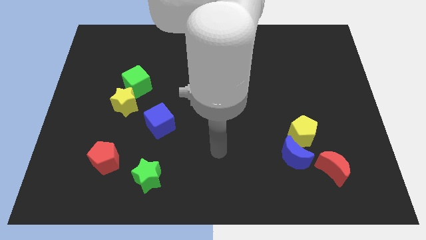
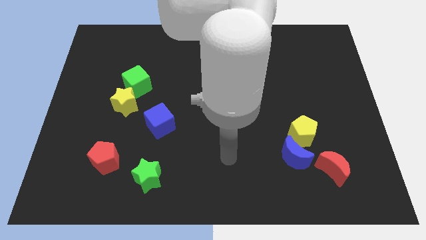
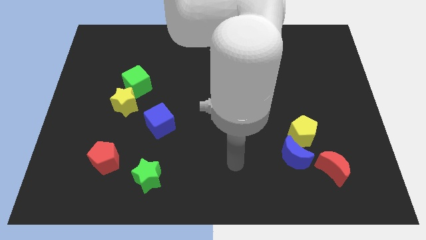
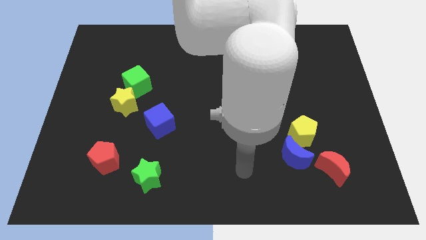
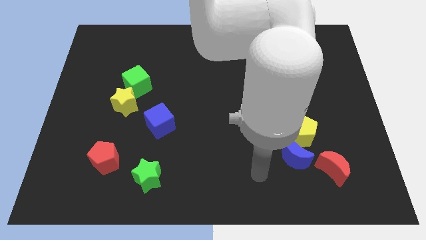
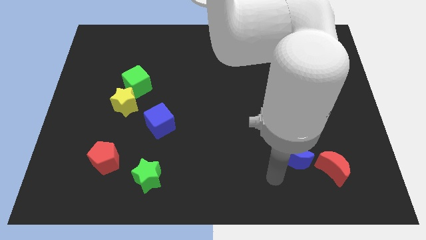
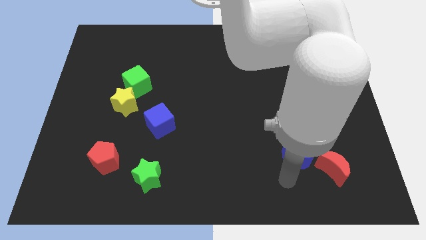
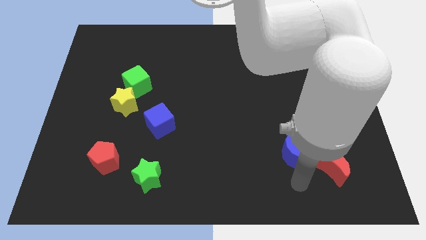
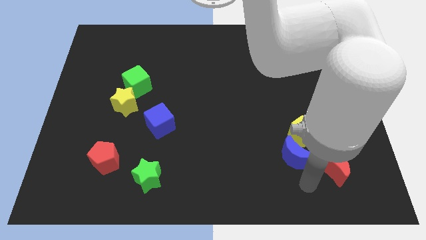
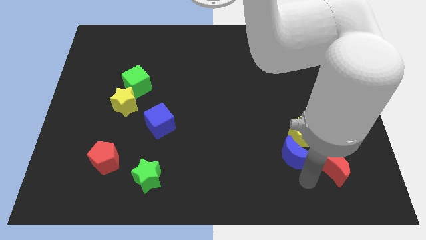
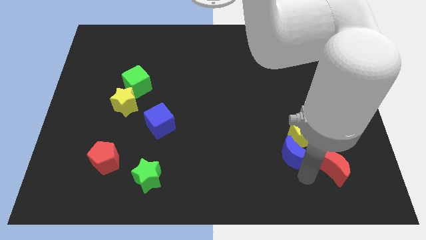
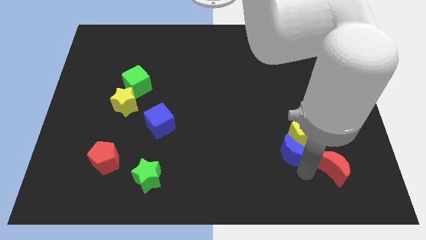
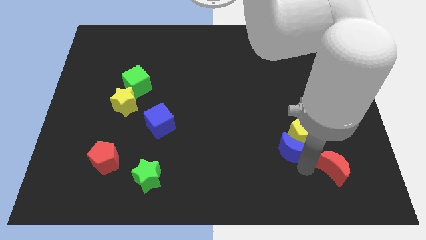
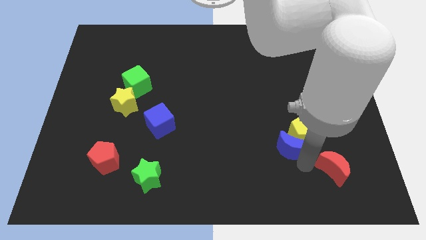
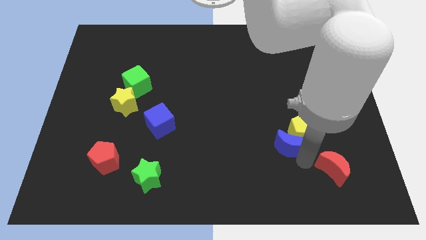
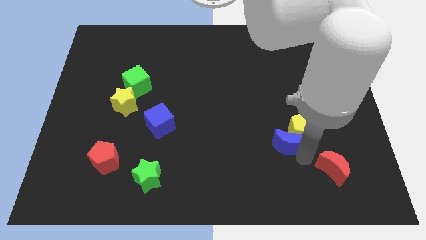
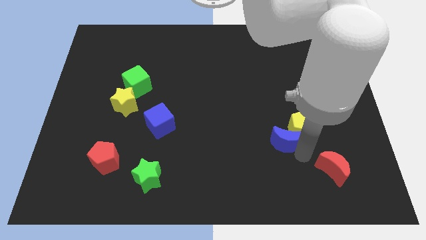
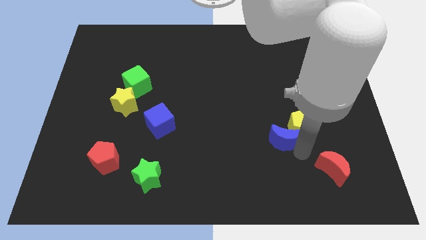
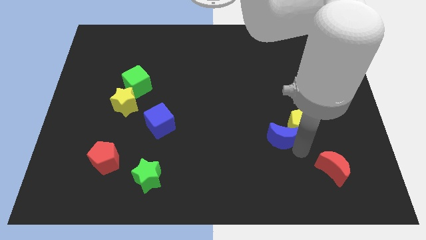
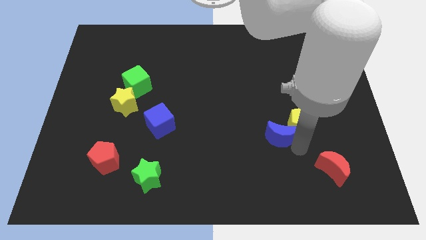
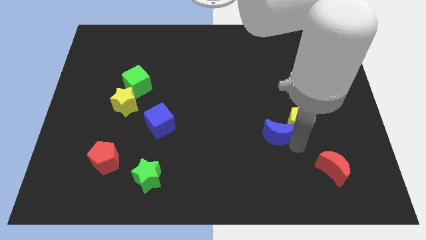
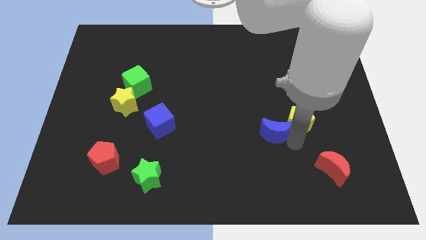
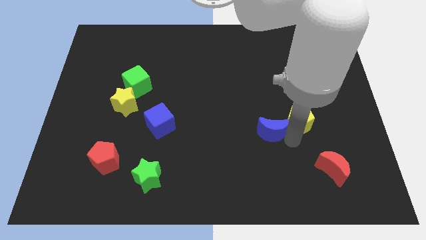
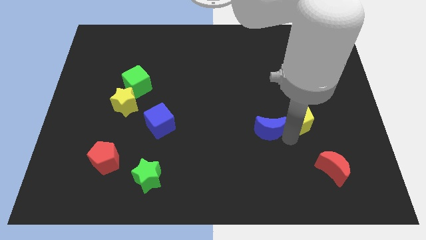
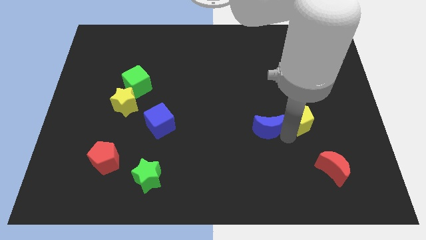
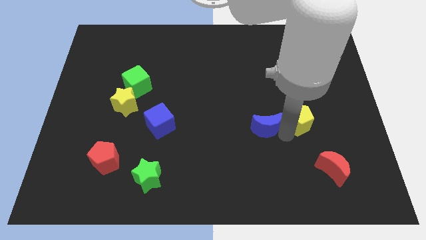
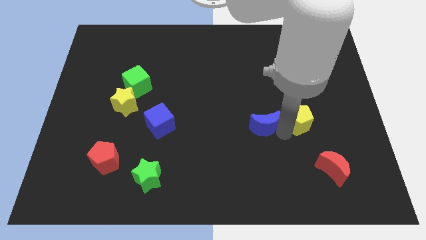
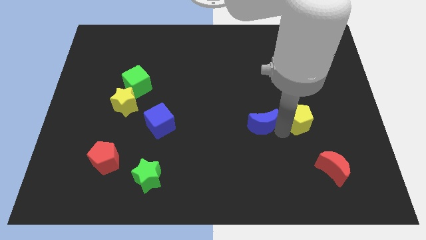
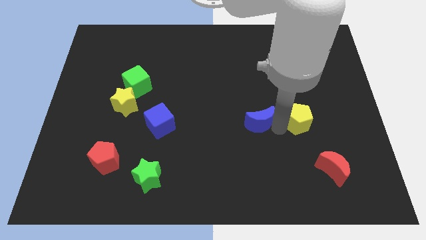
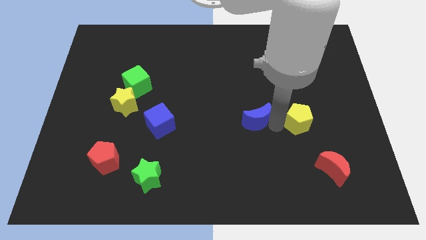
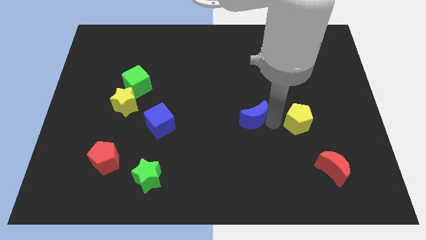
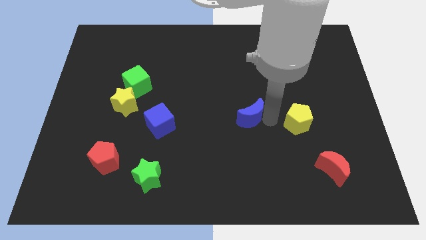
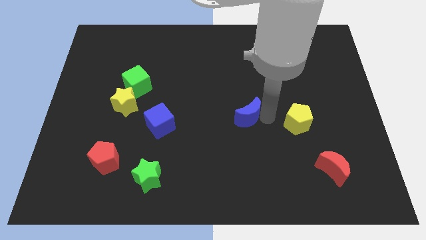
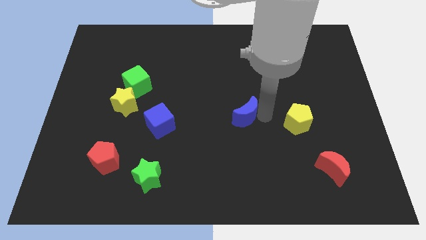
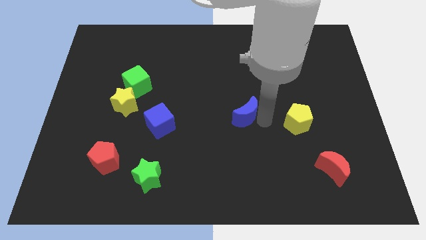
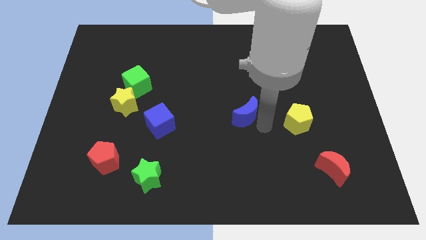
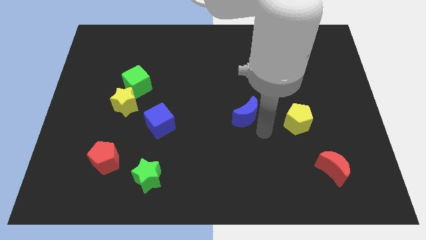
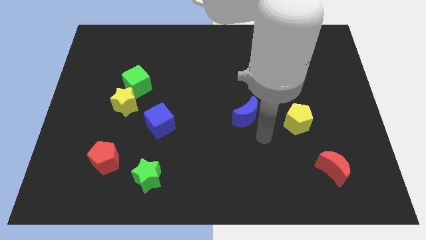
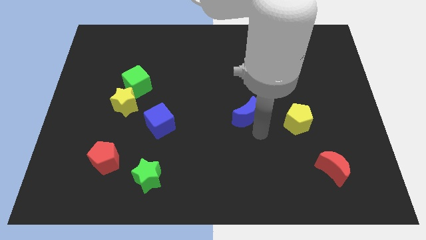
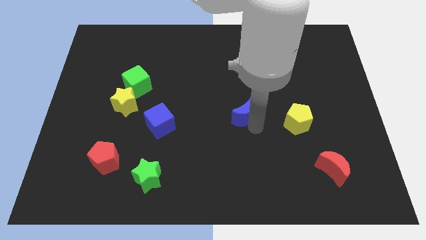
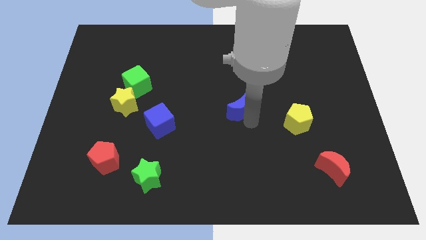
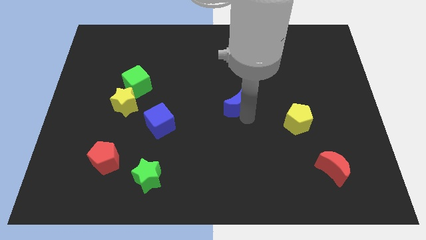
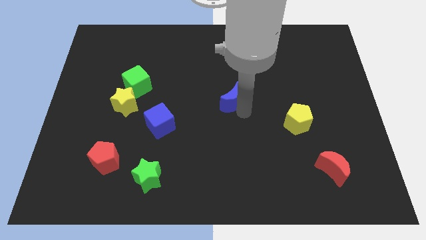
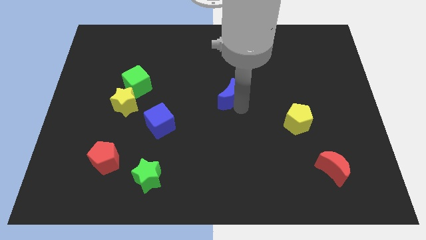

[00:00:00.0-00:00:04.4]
push the blue moon up and to the left diagonally

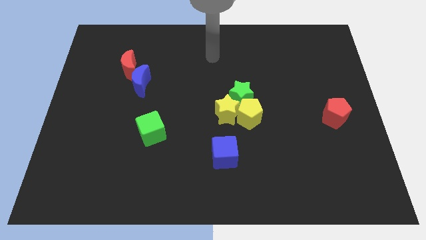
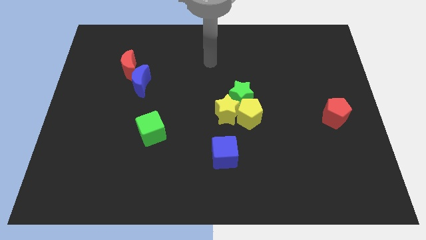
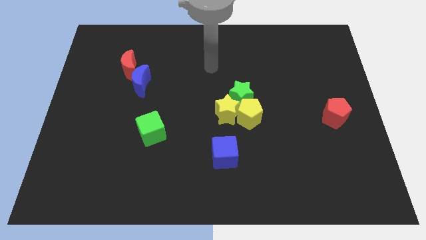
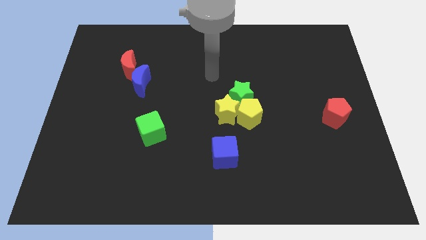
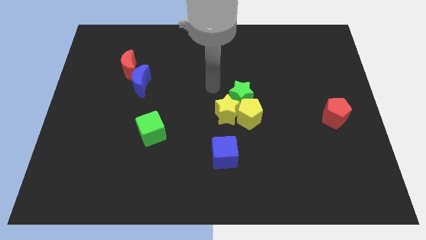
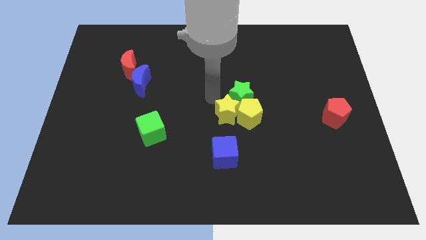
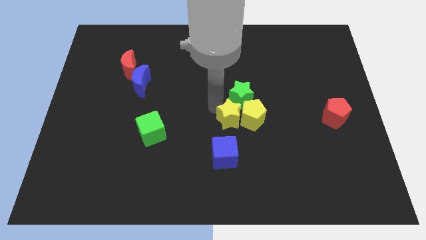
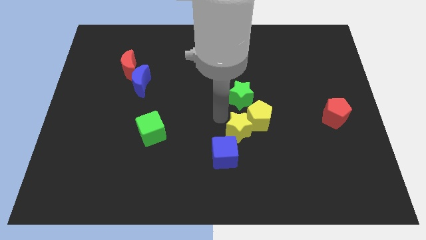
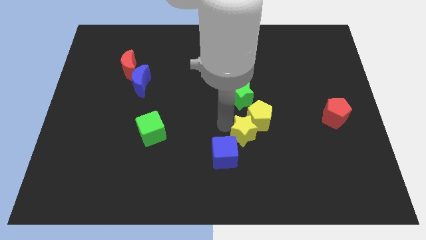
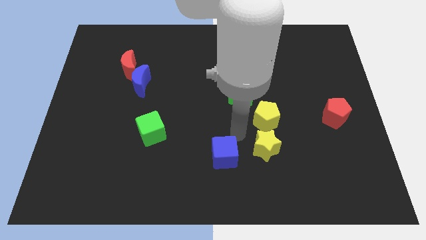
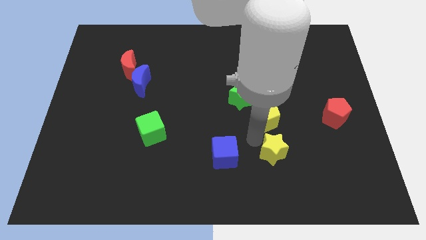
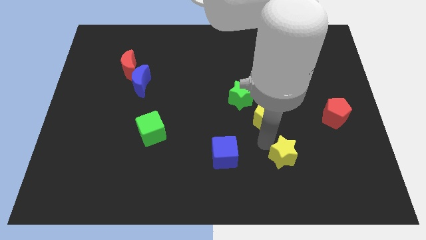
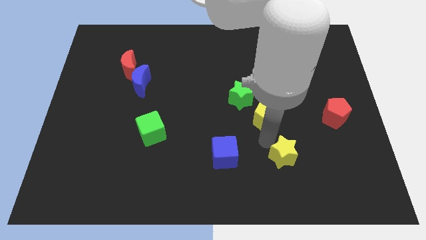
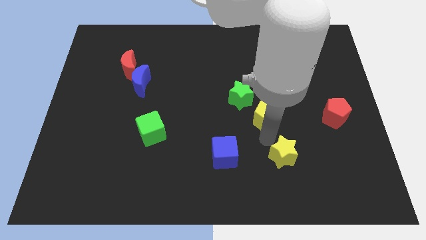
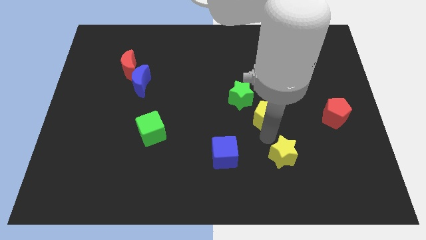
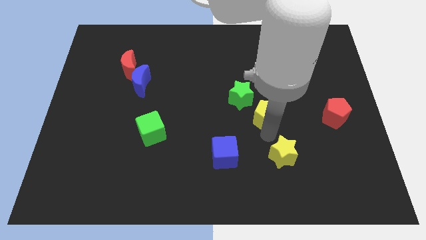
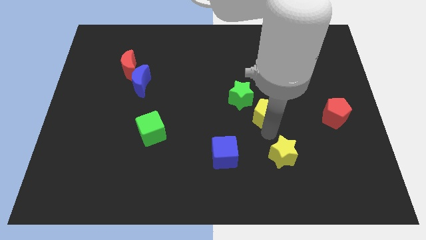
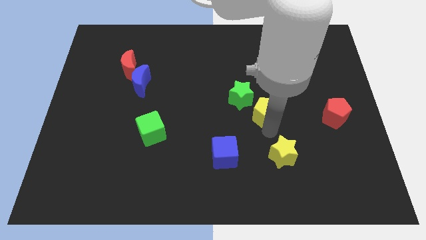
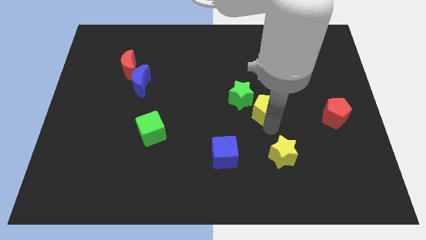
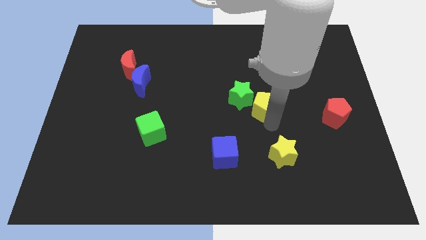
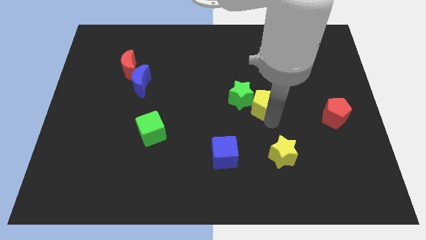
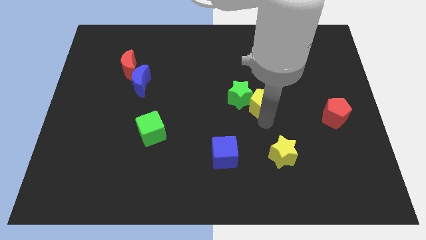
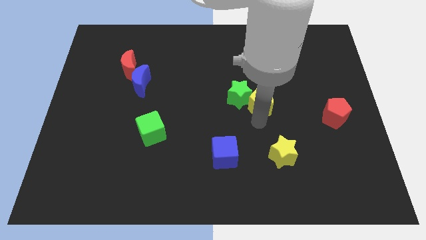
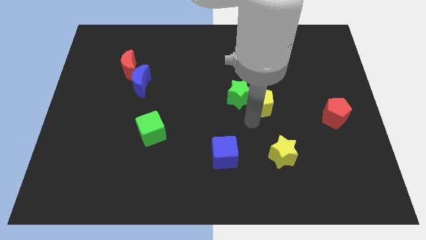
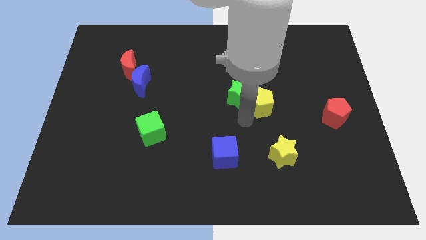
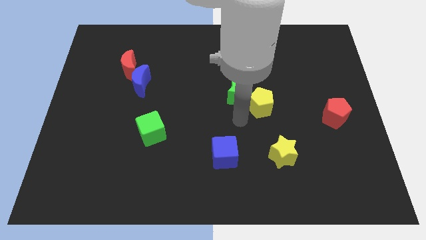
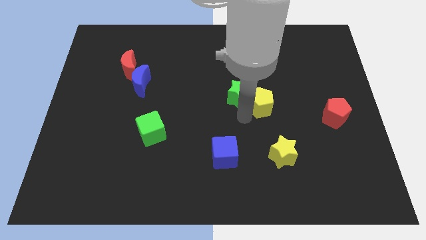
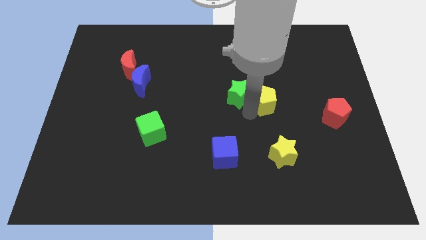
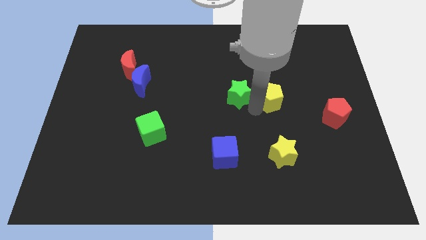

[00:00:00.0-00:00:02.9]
slightly push the yellow pentagon upwards and to the right diagonally

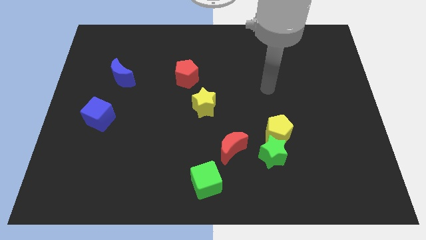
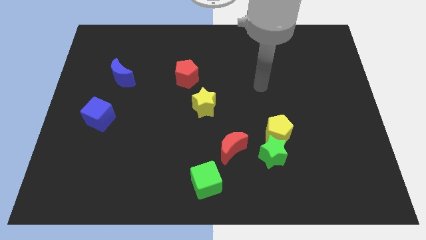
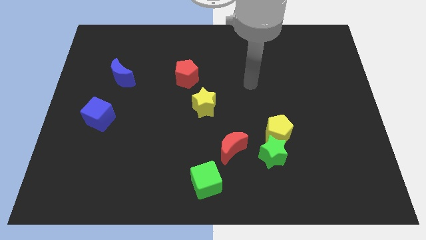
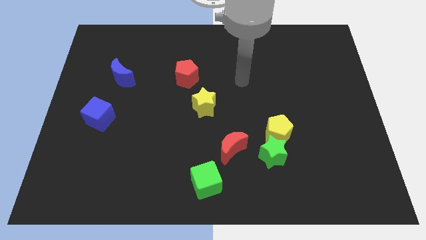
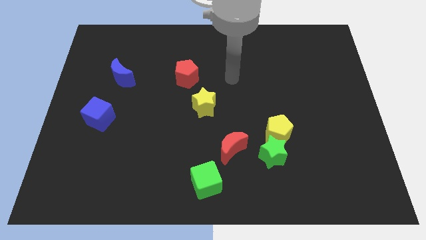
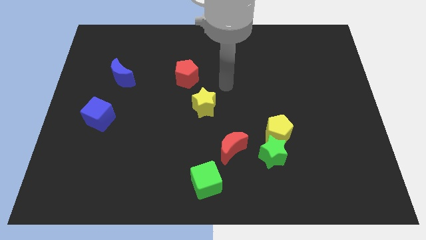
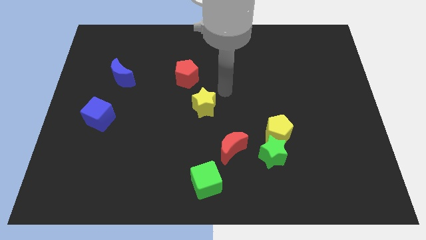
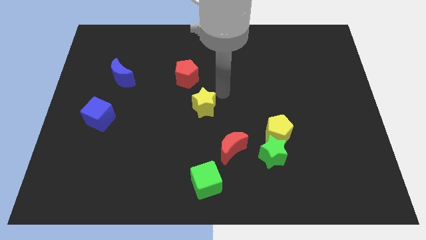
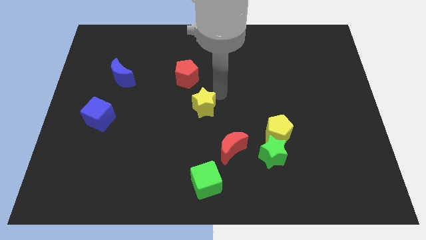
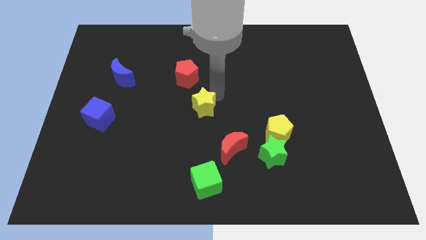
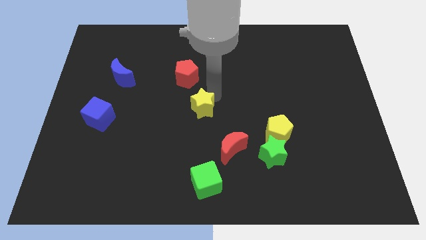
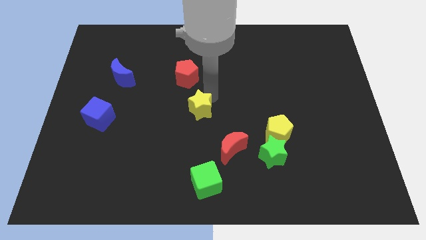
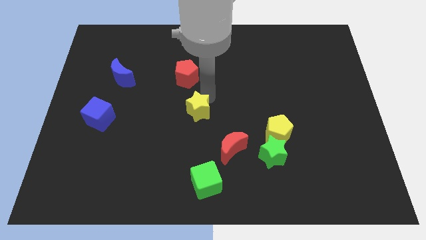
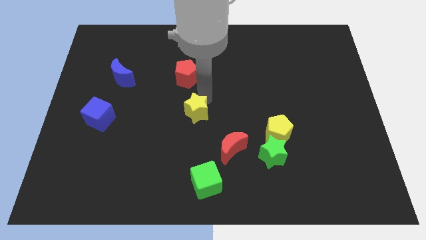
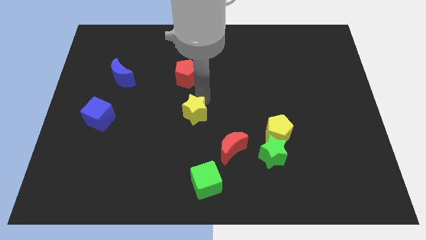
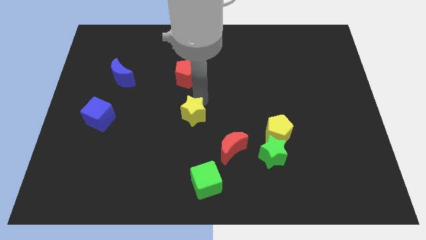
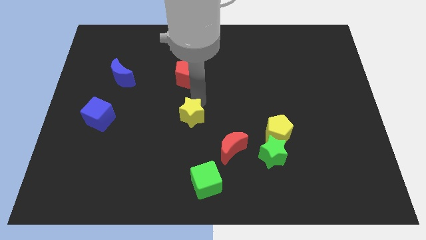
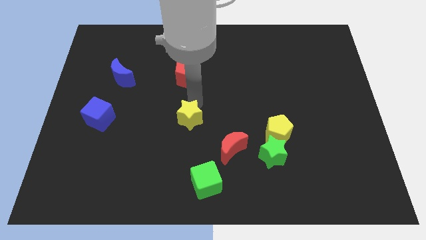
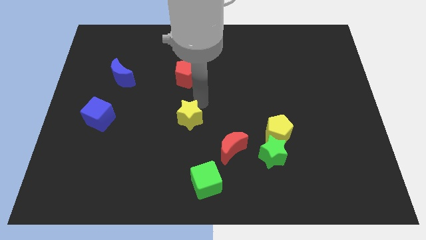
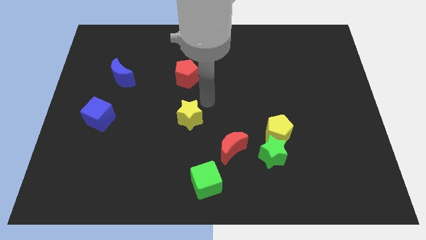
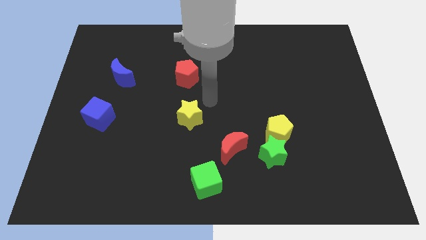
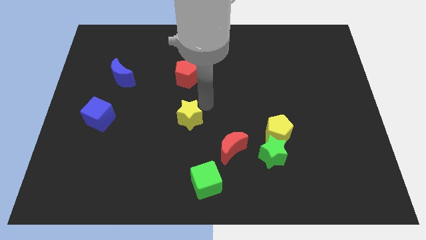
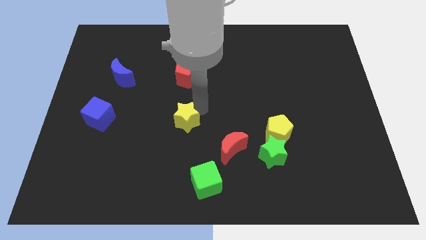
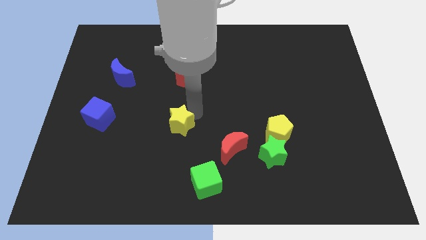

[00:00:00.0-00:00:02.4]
slightly slide the yellow star diagonally downwards and left
